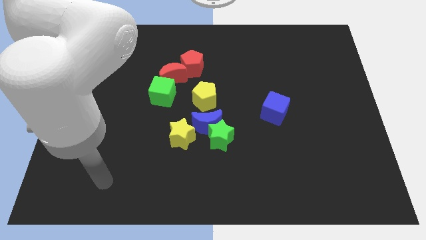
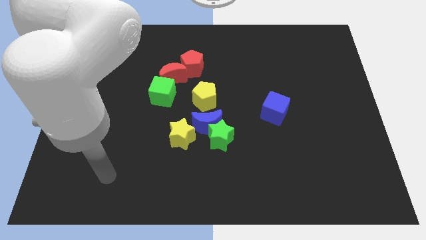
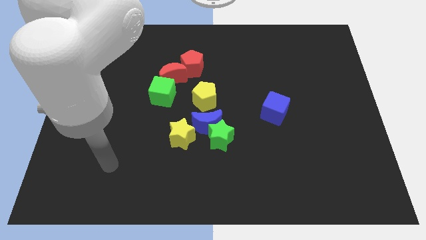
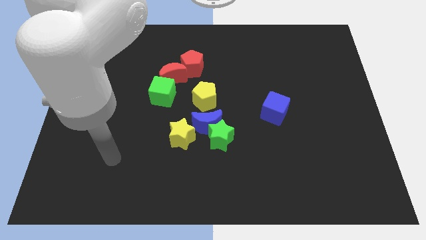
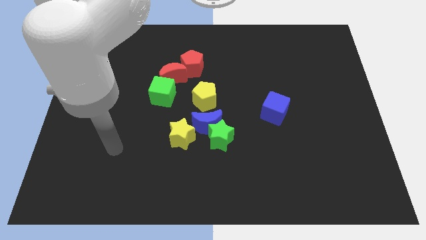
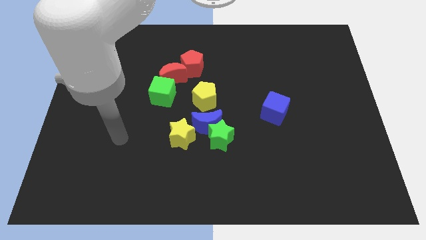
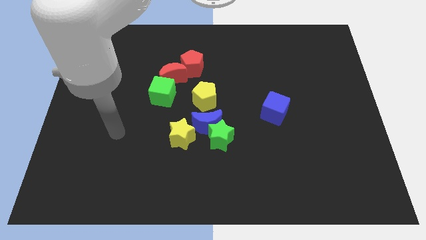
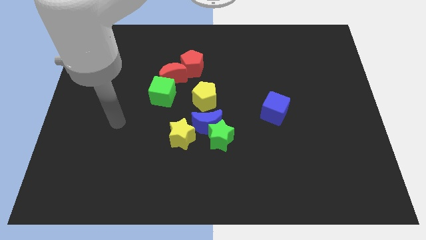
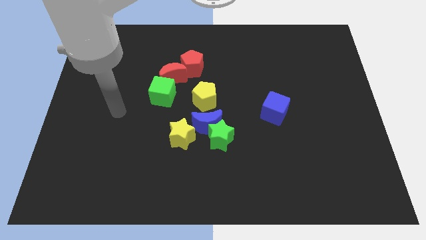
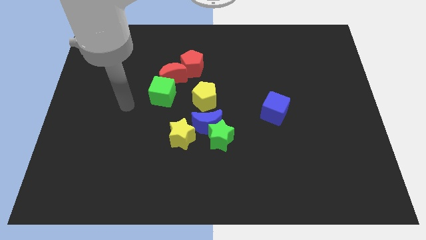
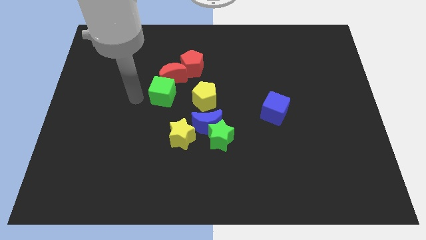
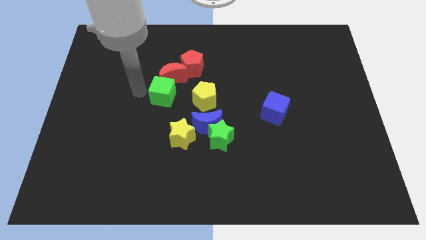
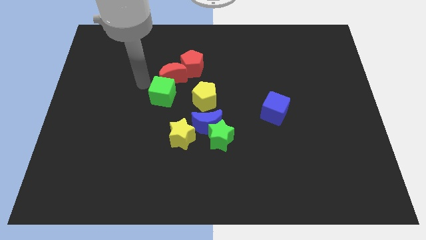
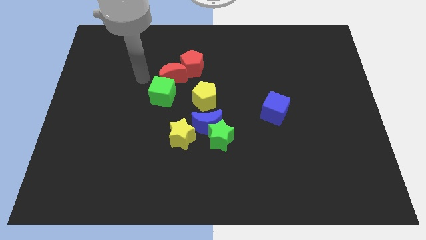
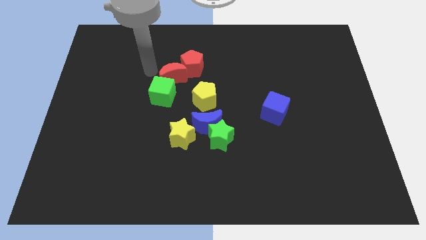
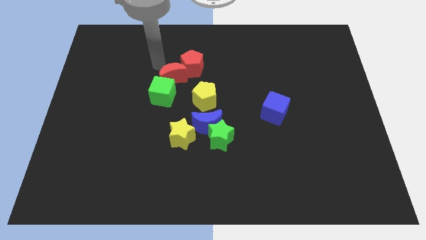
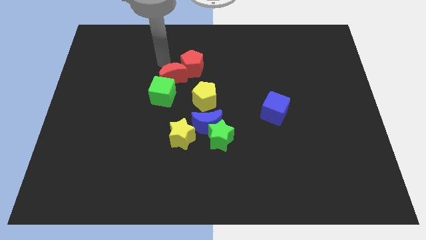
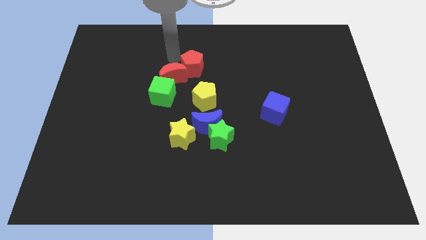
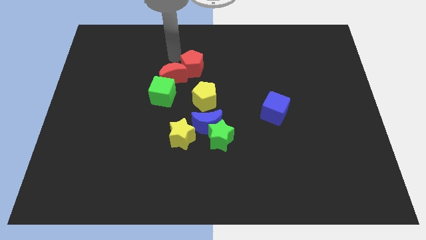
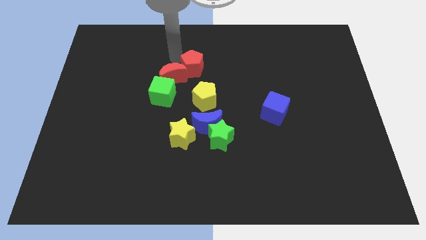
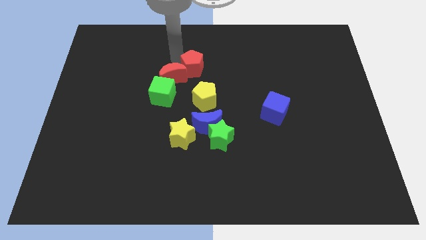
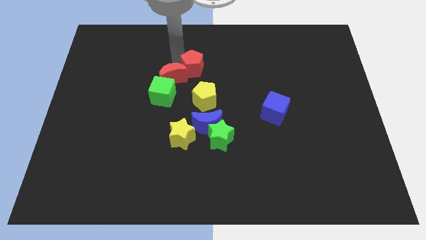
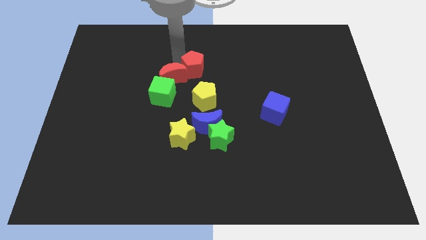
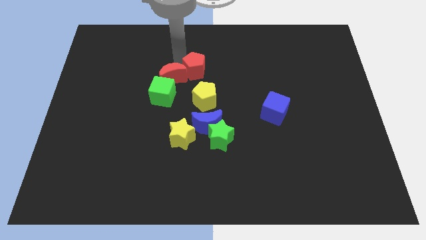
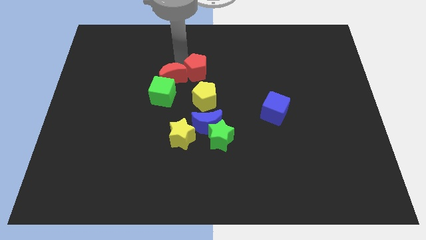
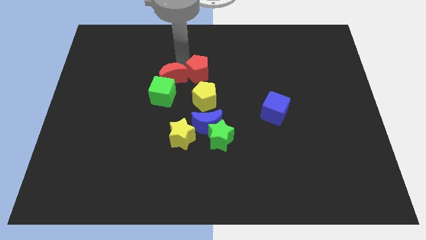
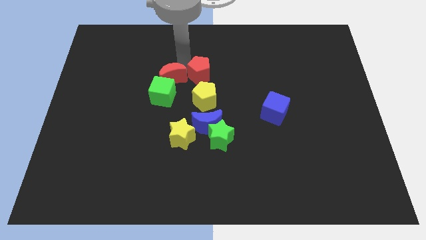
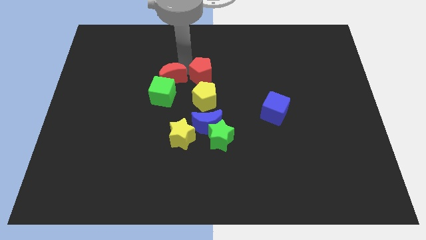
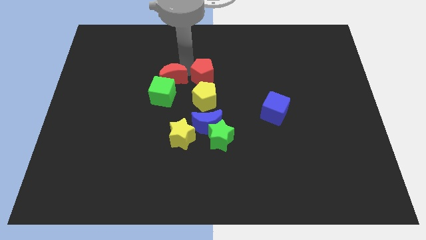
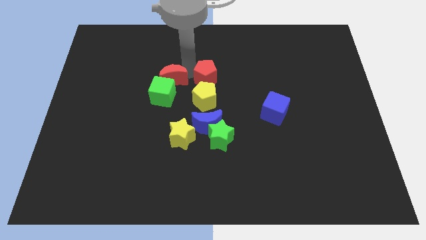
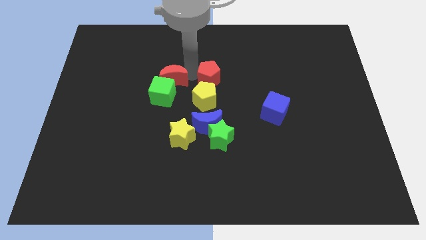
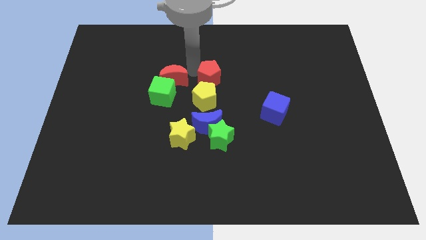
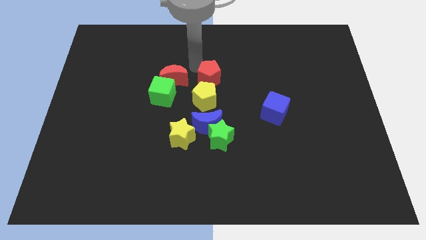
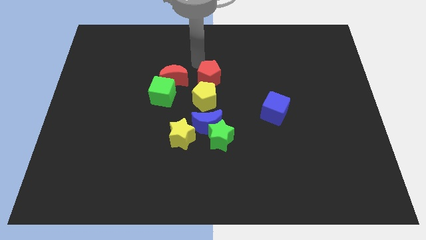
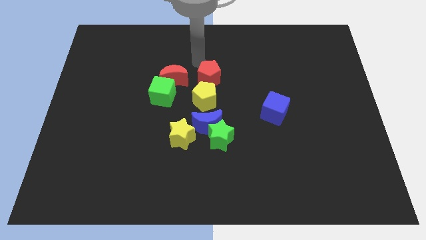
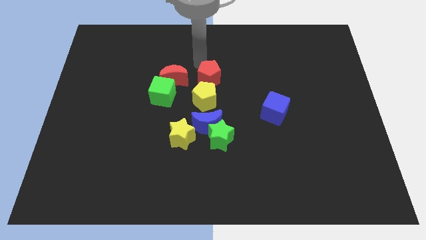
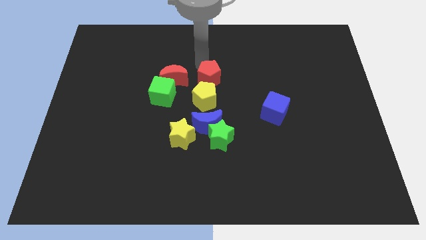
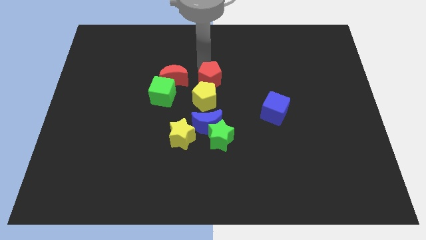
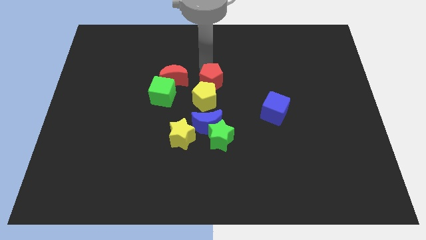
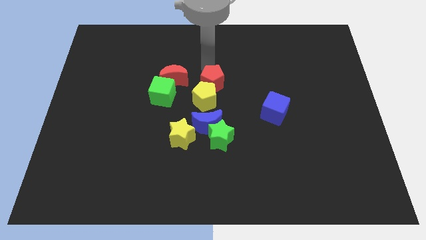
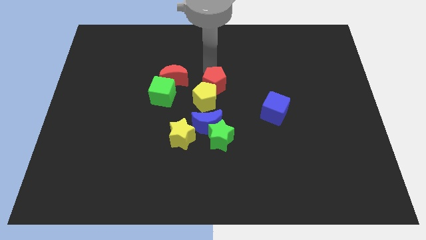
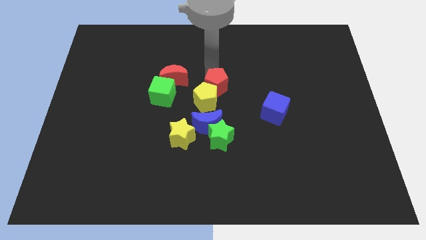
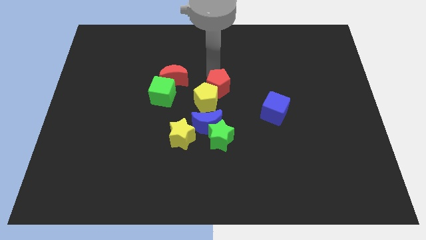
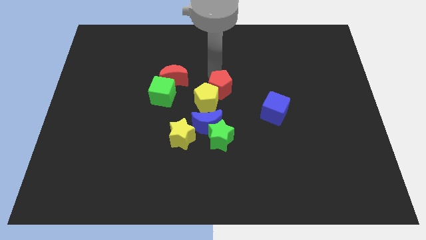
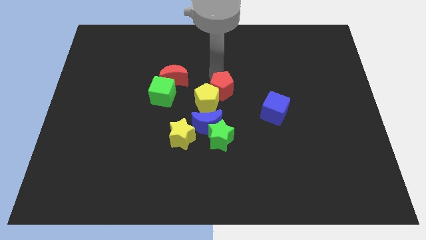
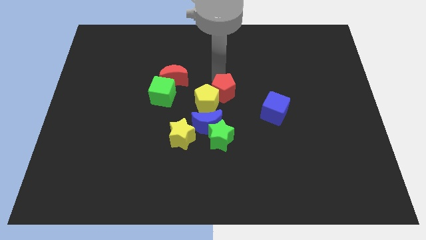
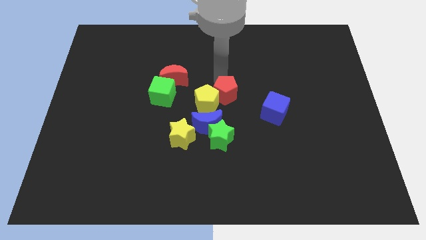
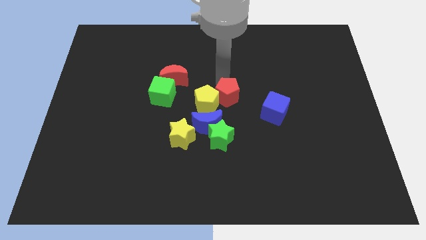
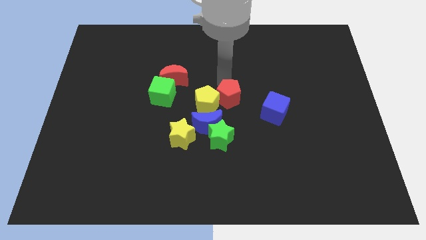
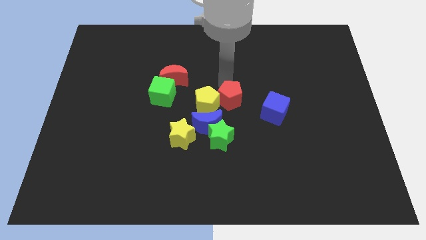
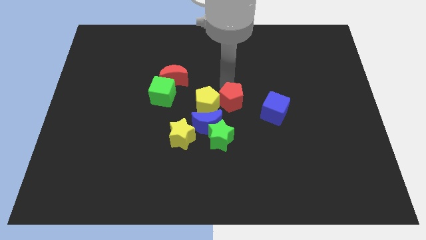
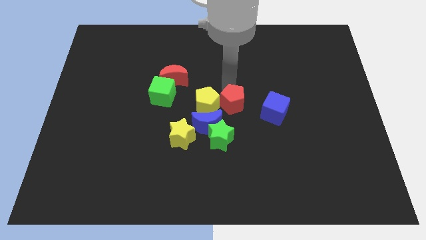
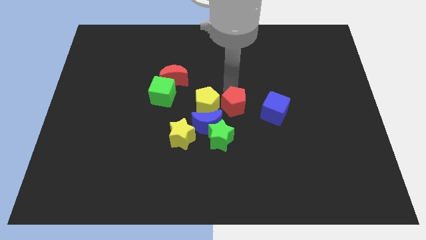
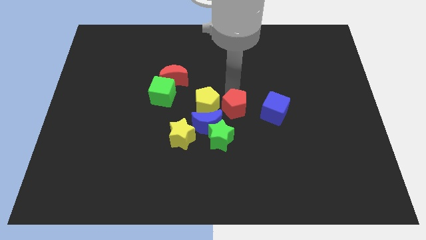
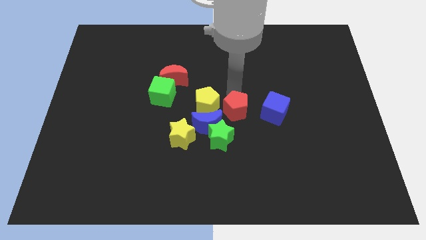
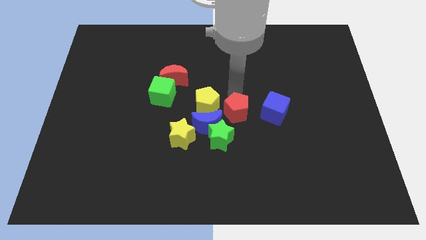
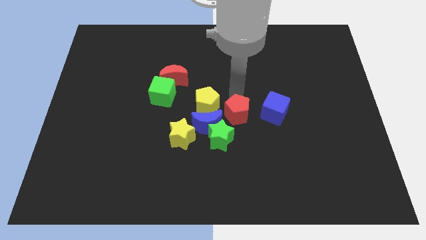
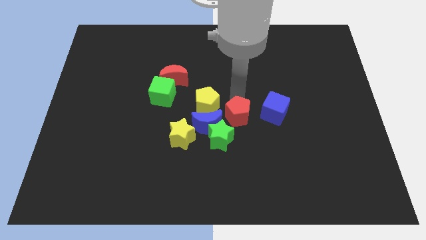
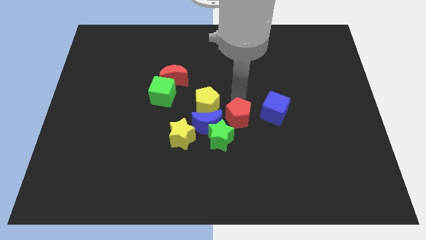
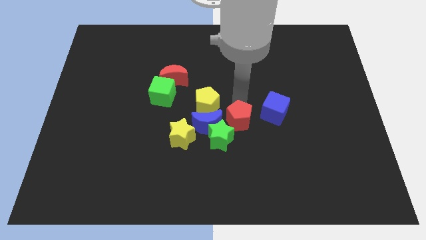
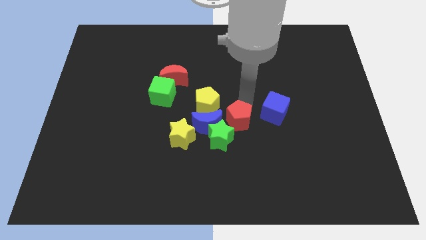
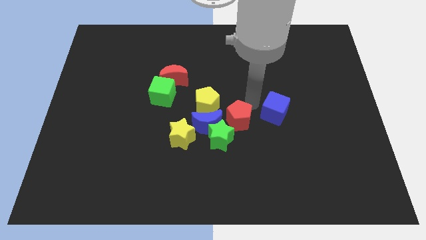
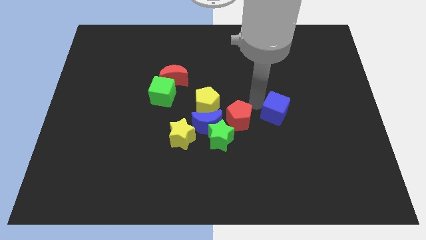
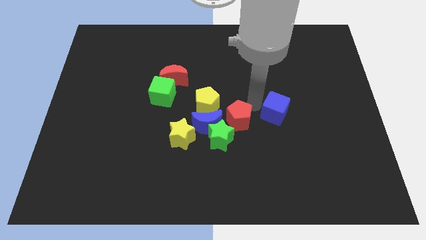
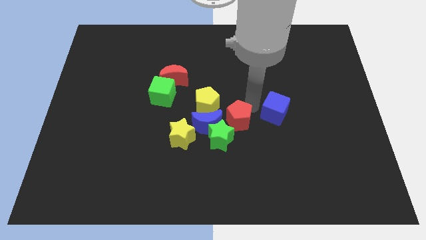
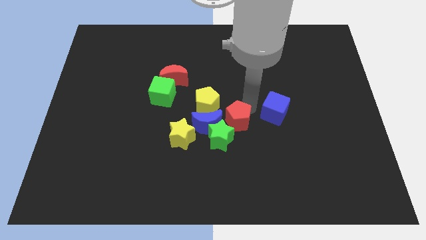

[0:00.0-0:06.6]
push the red pentagon towards the green star
